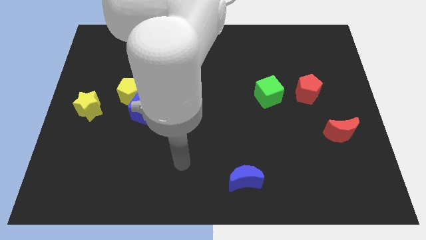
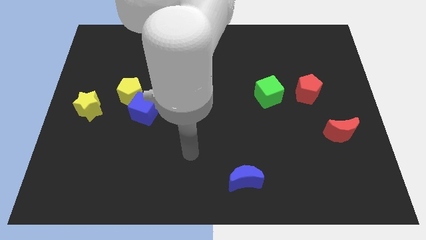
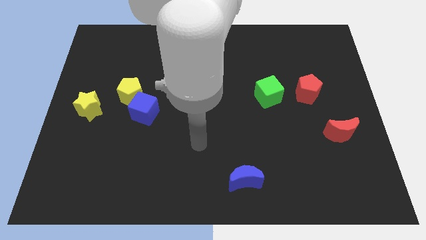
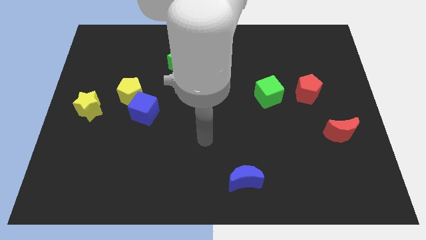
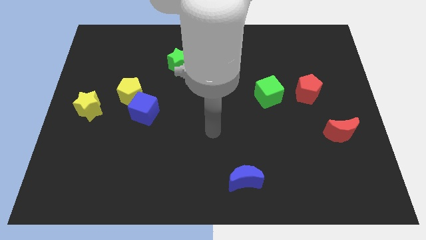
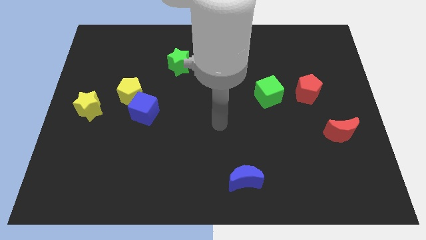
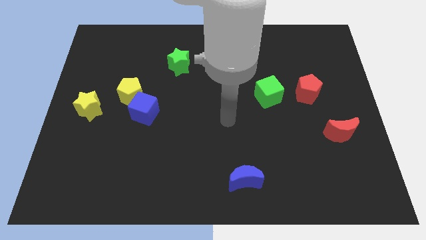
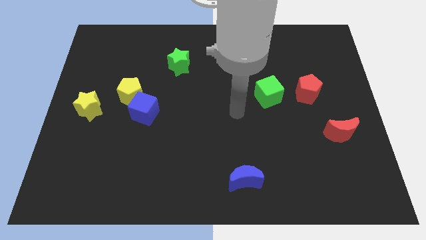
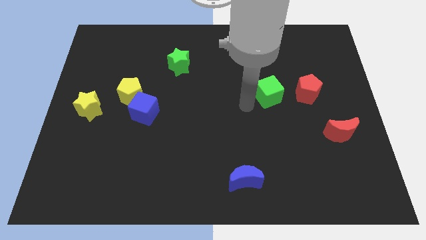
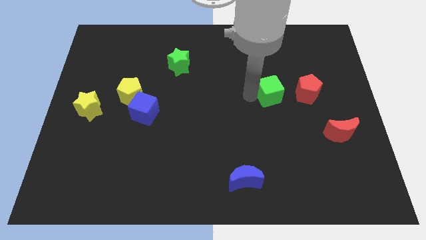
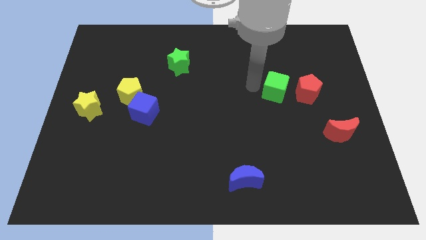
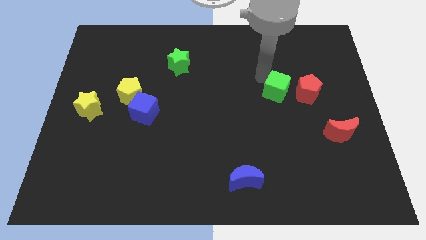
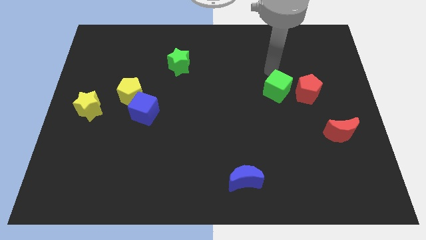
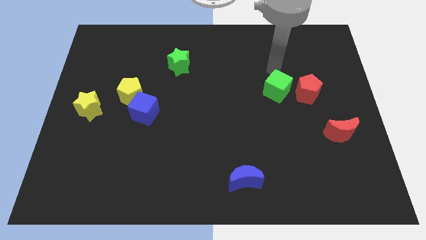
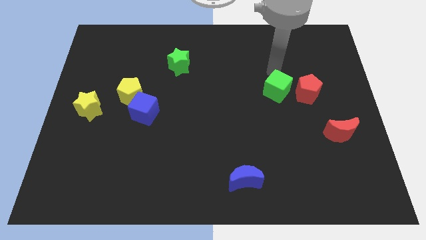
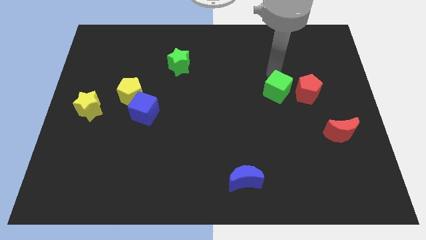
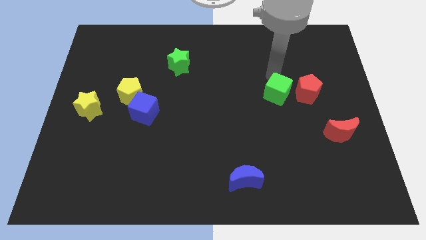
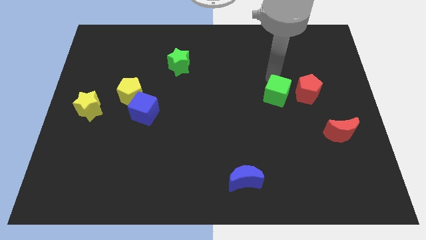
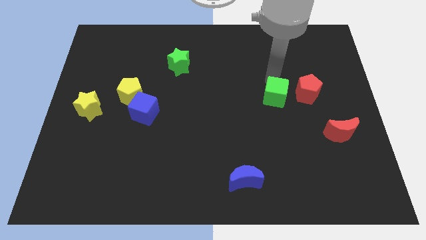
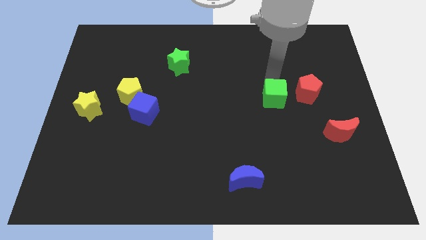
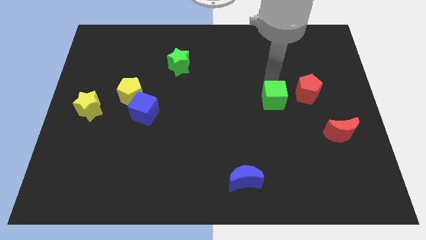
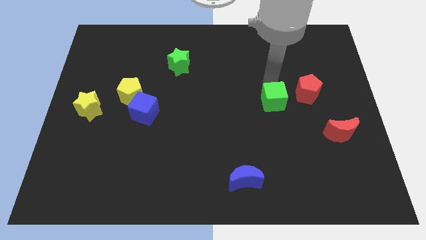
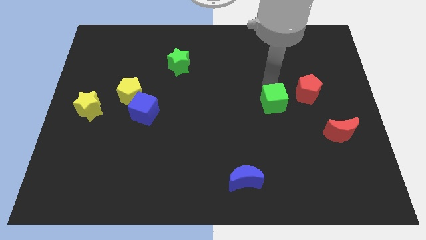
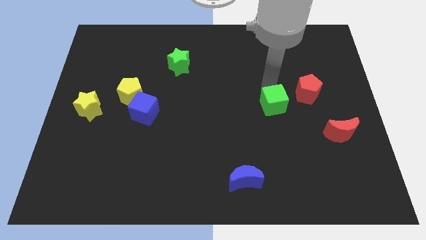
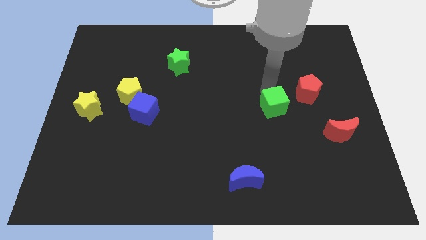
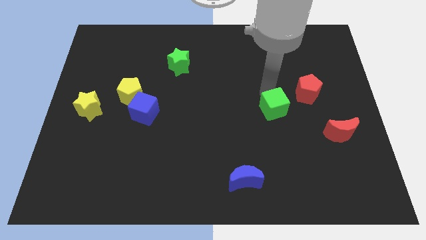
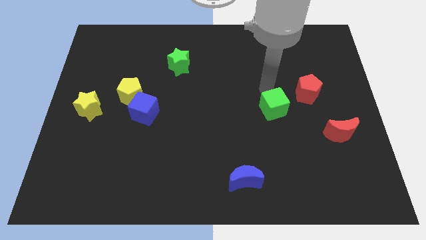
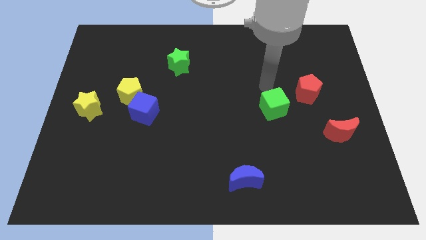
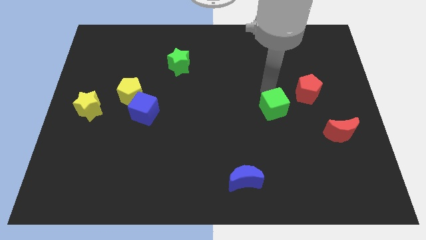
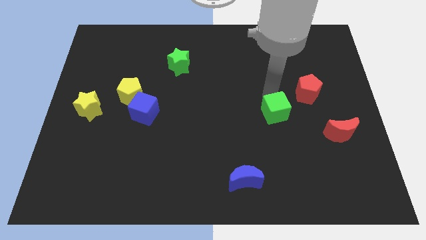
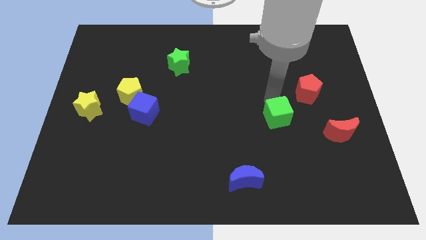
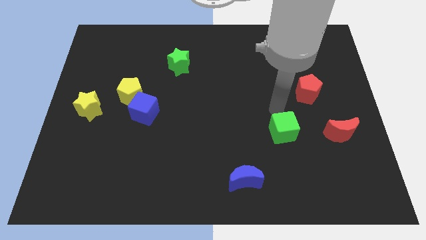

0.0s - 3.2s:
move the green cube downwards slightly

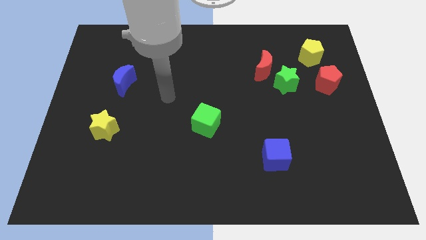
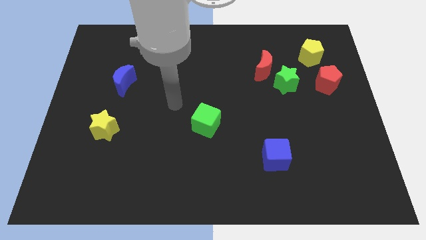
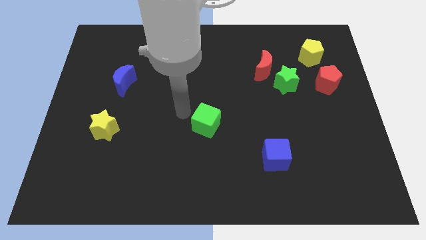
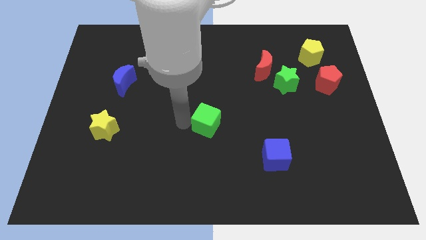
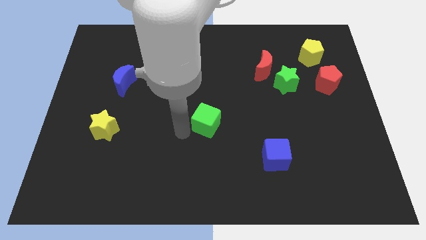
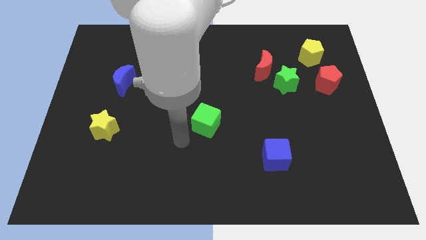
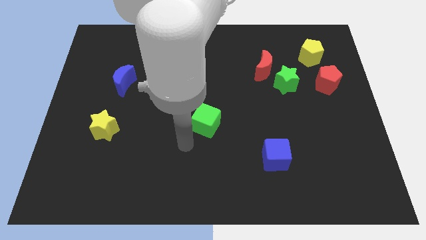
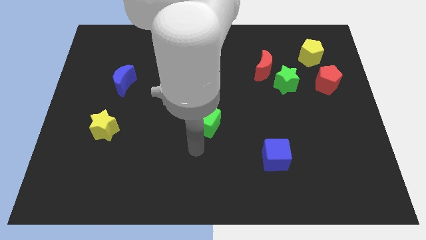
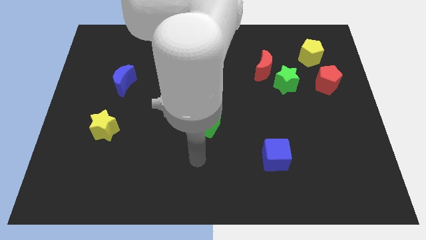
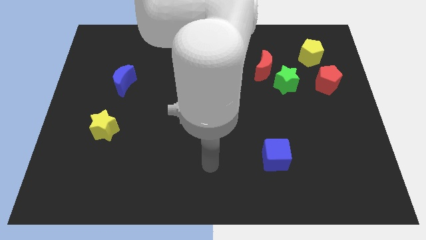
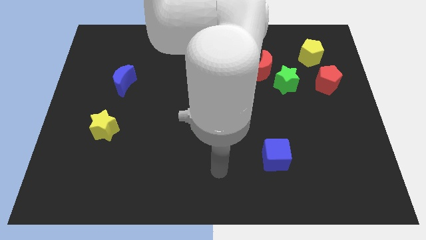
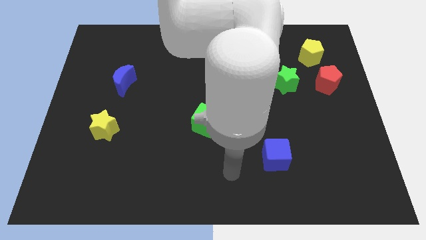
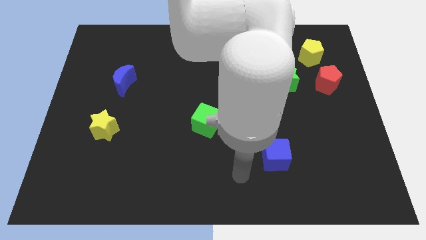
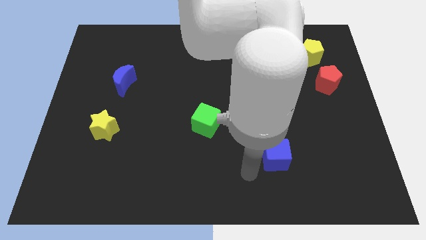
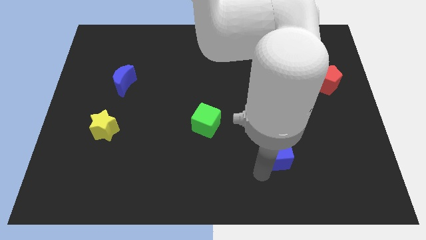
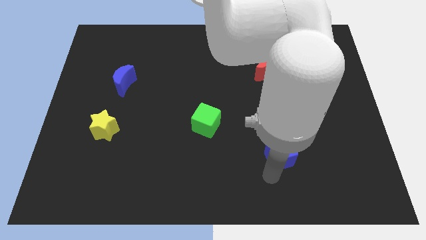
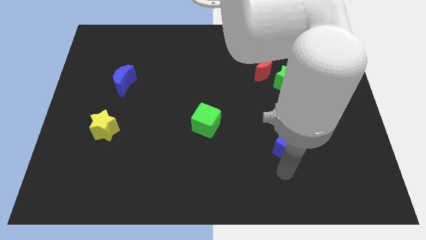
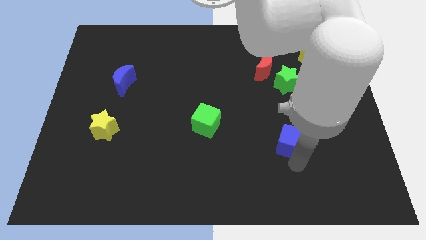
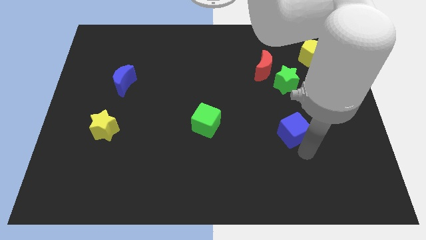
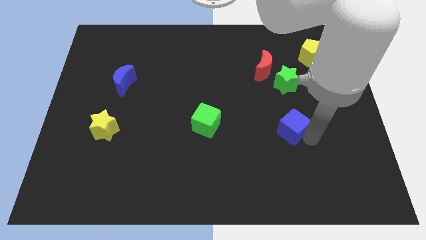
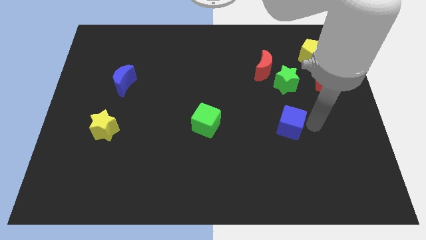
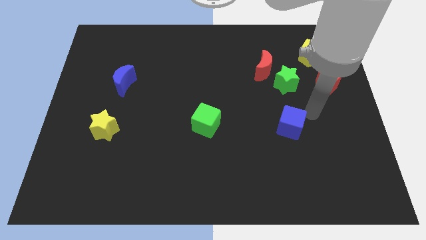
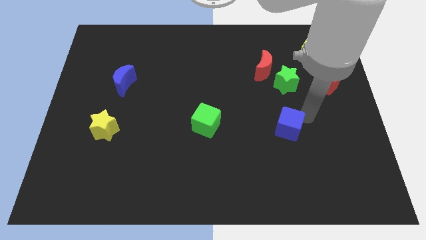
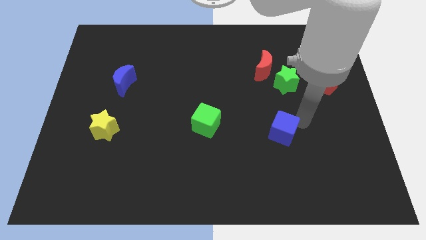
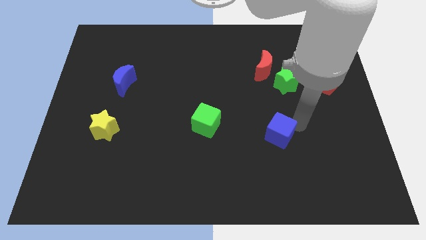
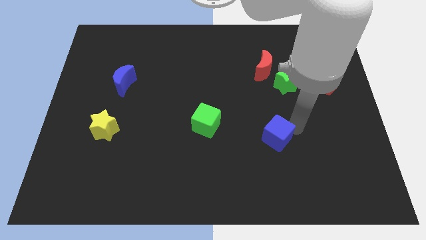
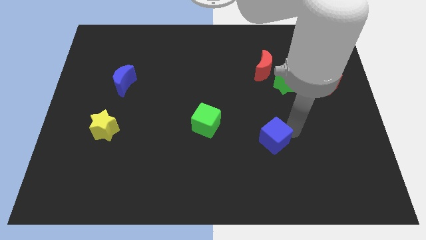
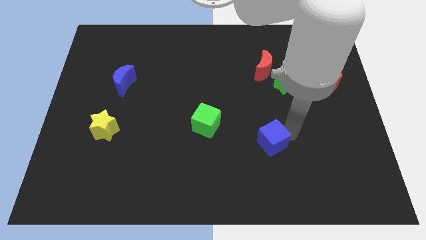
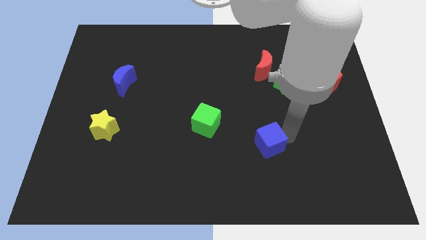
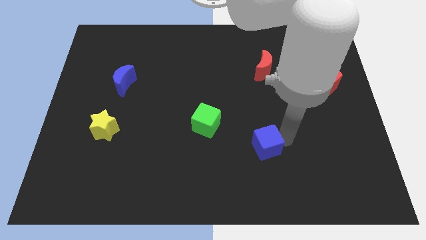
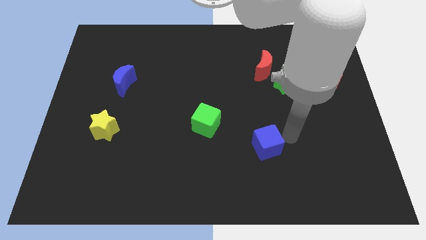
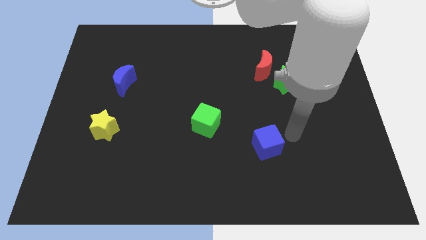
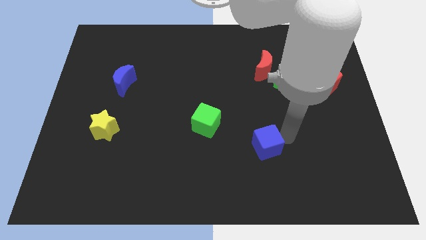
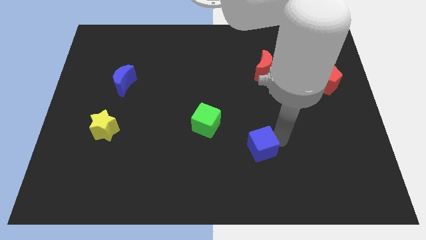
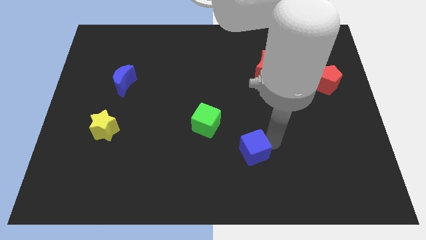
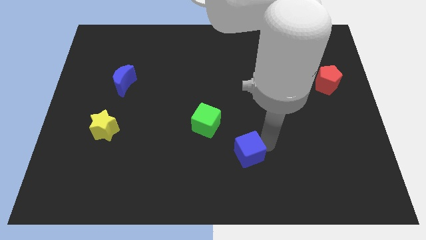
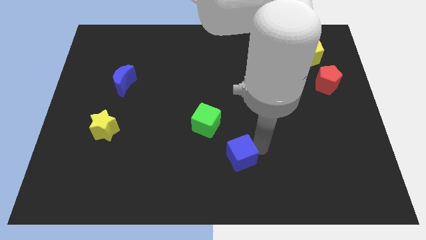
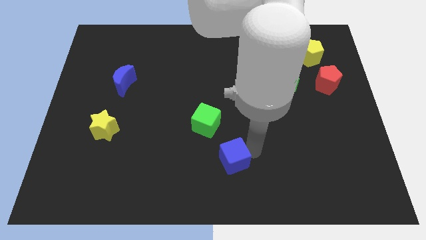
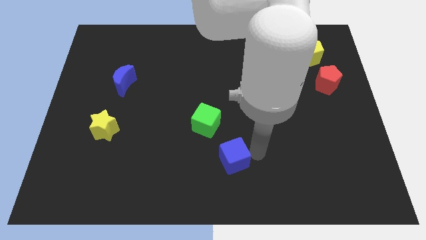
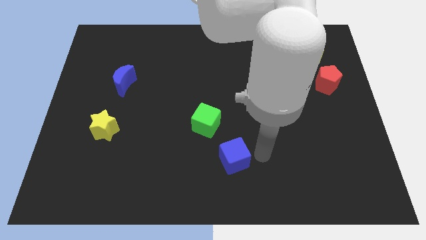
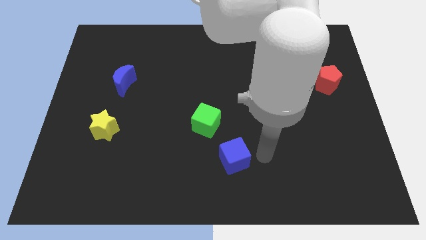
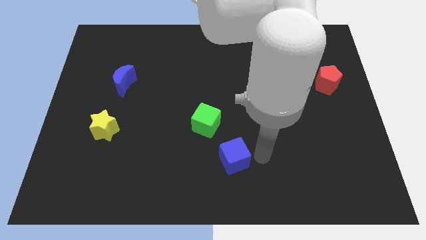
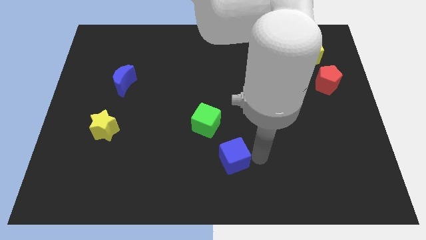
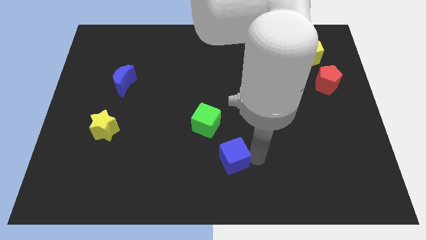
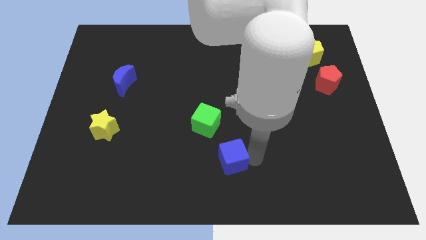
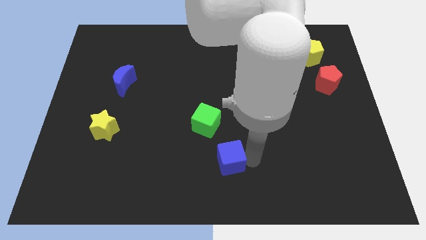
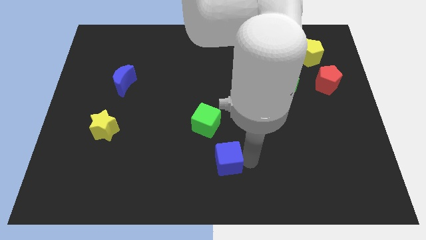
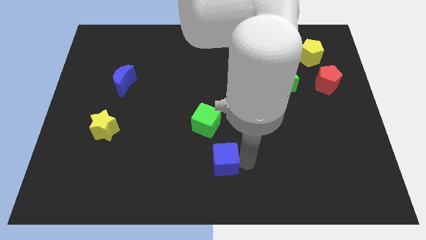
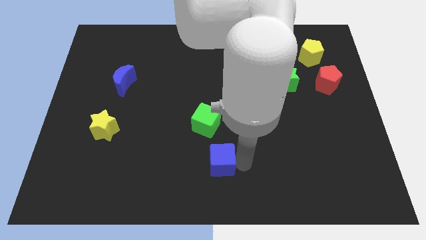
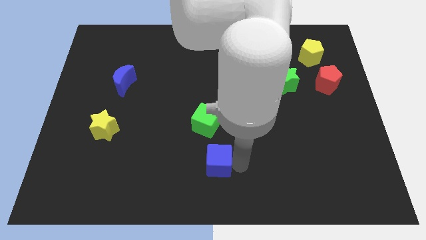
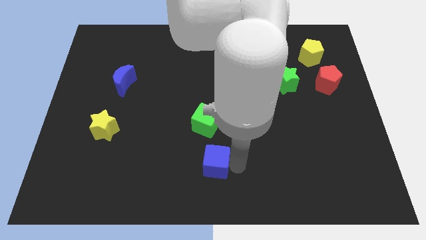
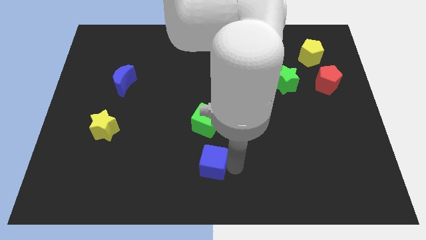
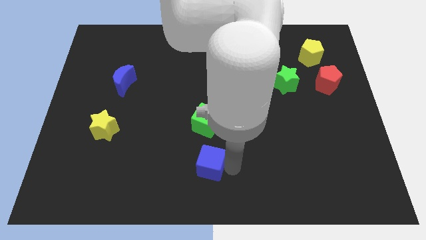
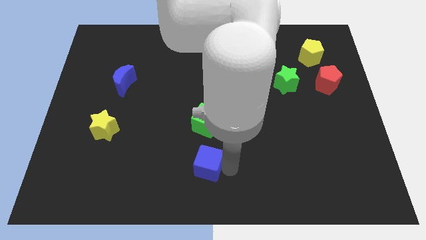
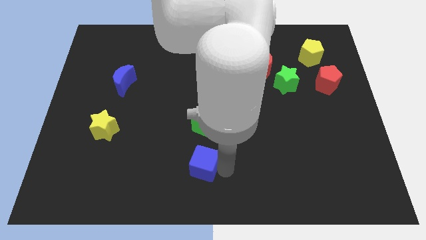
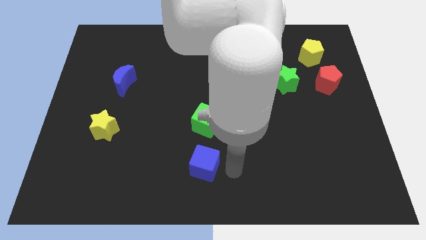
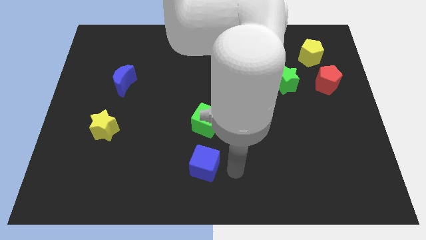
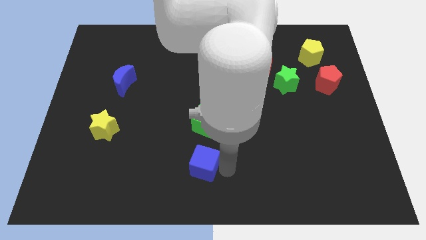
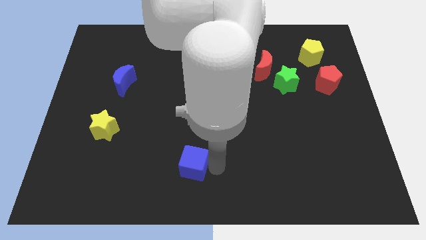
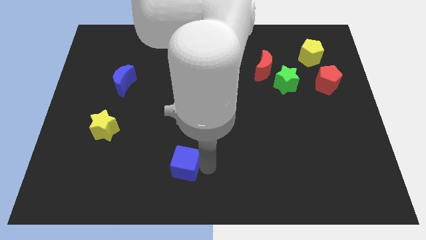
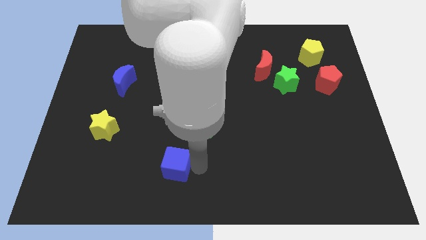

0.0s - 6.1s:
push the blue cube to the left

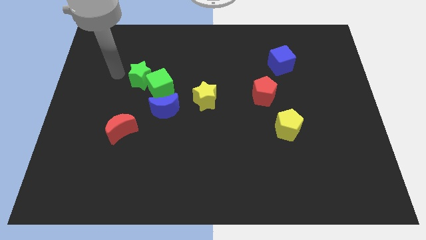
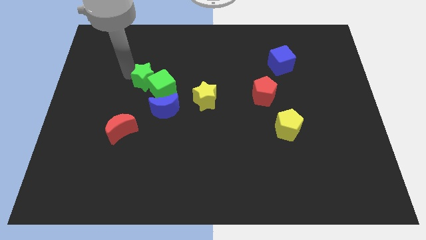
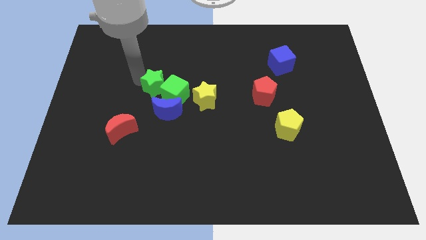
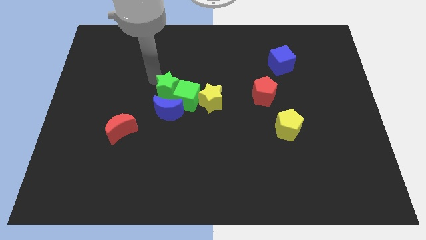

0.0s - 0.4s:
slide the green cube slightly downwards and to the right diagonally
